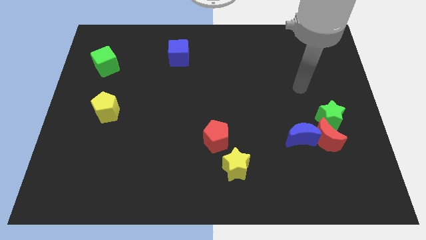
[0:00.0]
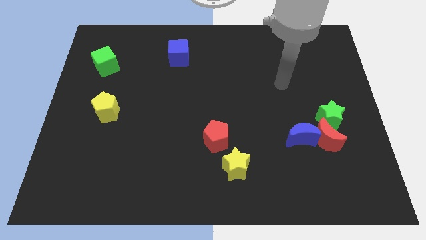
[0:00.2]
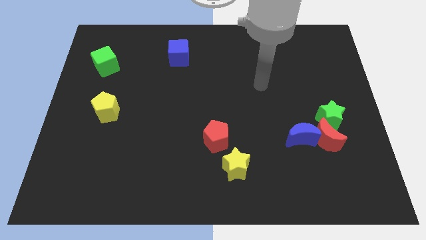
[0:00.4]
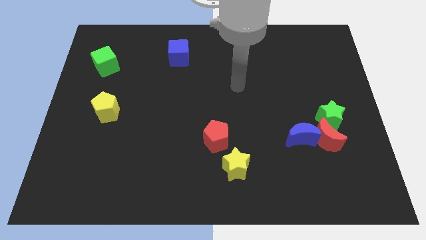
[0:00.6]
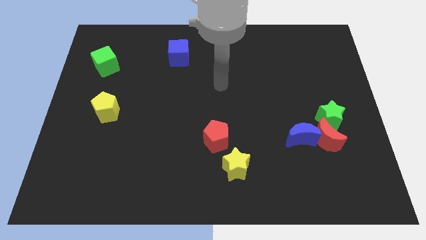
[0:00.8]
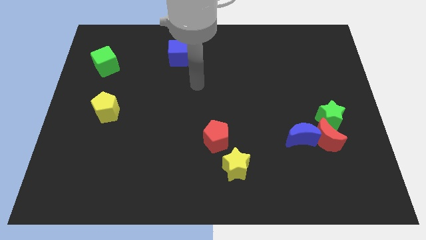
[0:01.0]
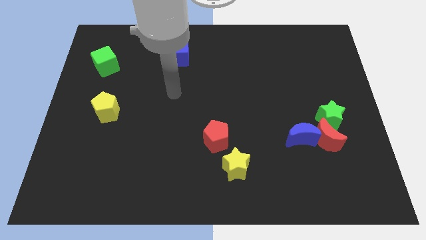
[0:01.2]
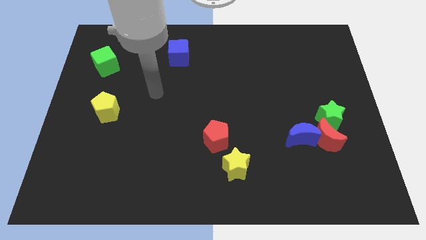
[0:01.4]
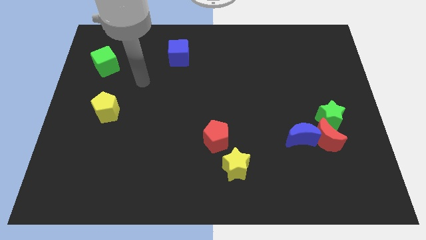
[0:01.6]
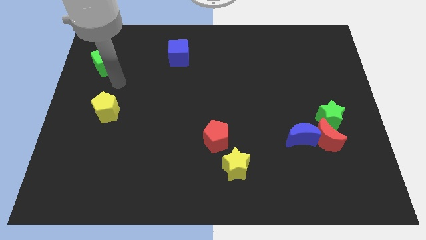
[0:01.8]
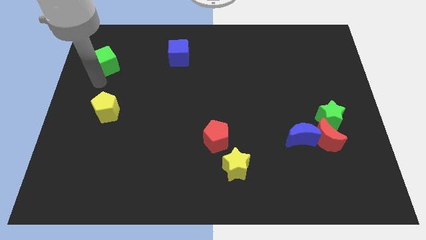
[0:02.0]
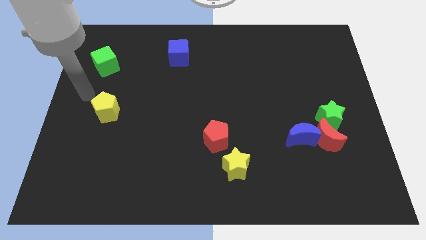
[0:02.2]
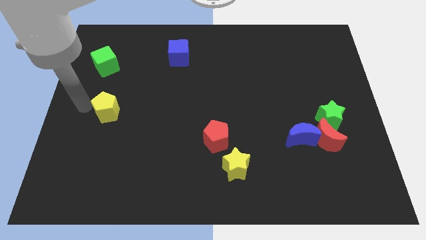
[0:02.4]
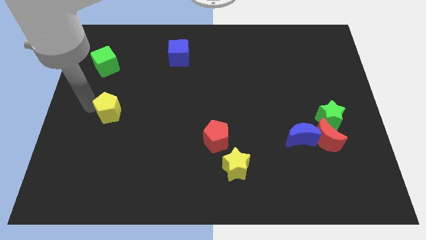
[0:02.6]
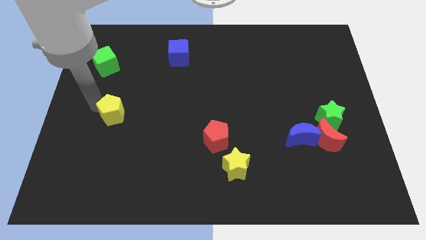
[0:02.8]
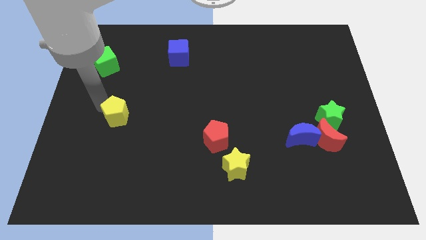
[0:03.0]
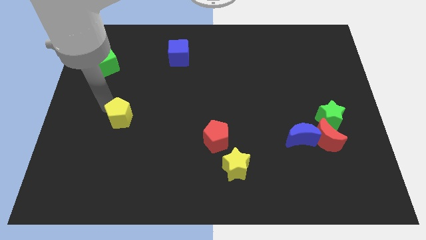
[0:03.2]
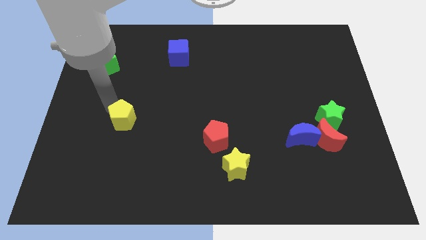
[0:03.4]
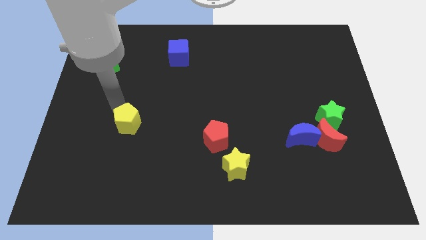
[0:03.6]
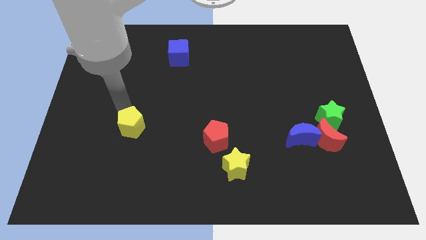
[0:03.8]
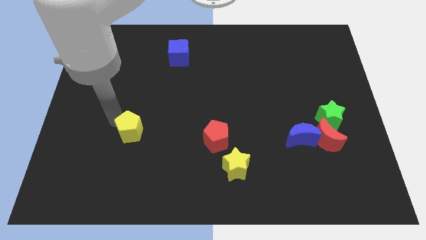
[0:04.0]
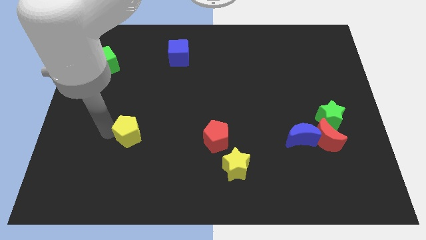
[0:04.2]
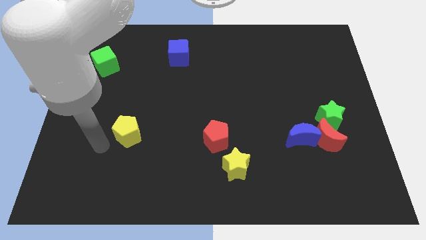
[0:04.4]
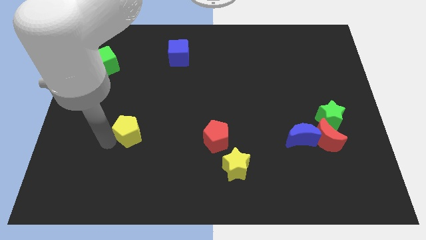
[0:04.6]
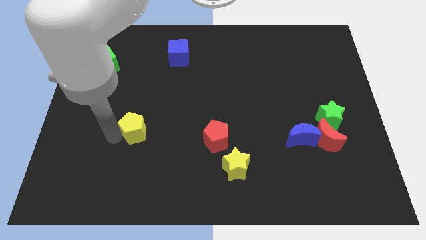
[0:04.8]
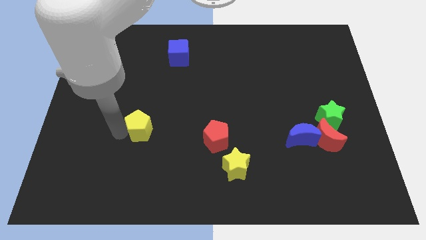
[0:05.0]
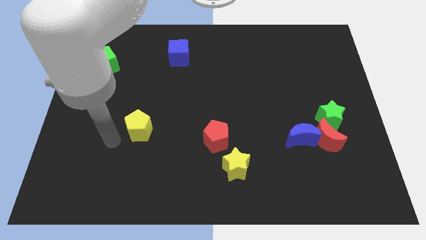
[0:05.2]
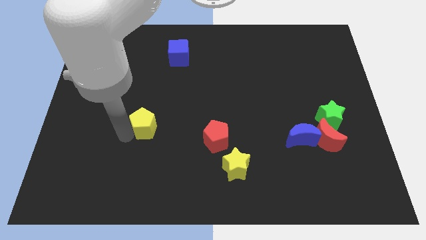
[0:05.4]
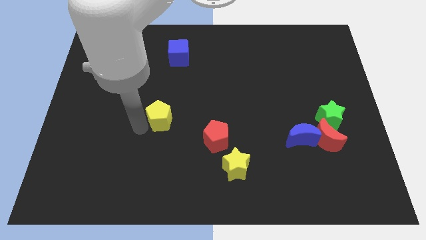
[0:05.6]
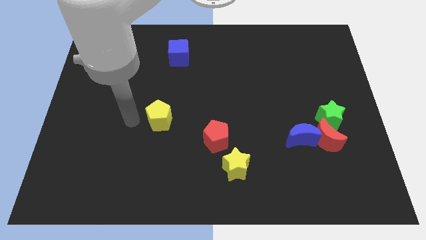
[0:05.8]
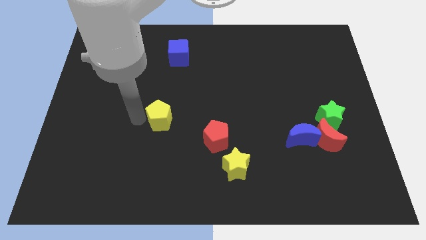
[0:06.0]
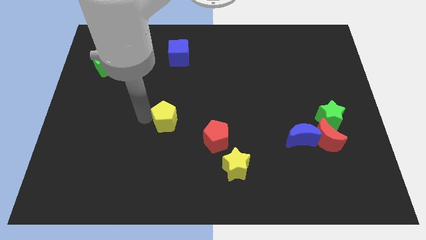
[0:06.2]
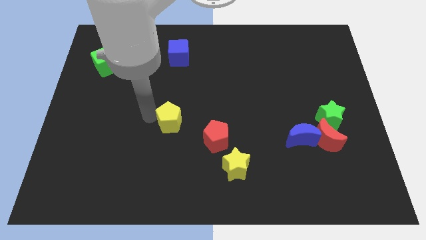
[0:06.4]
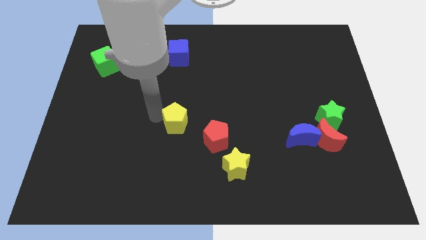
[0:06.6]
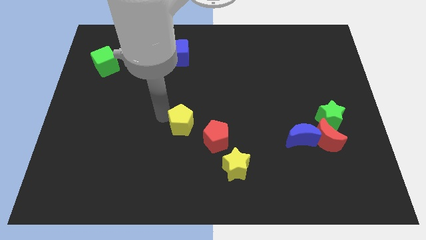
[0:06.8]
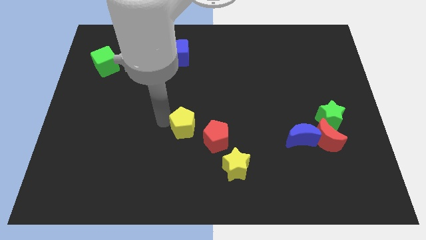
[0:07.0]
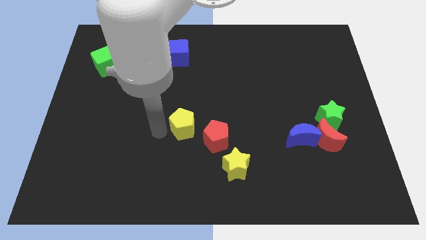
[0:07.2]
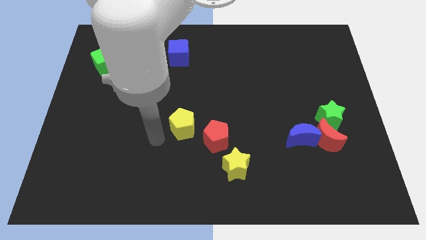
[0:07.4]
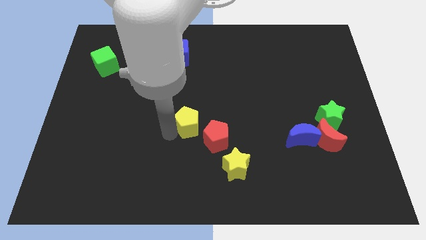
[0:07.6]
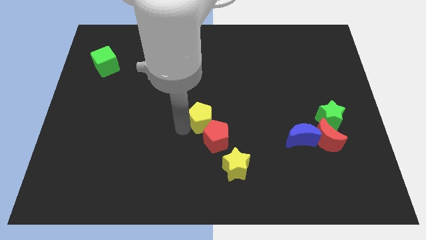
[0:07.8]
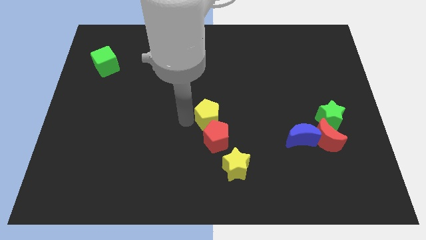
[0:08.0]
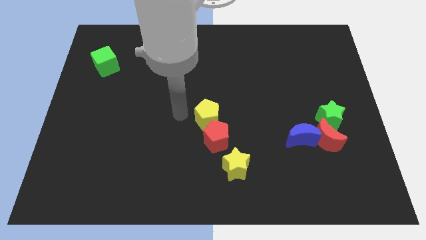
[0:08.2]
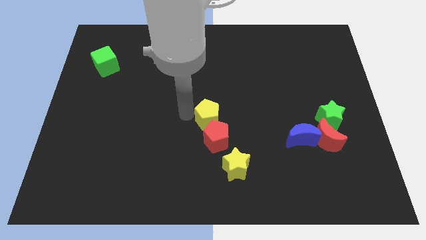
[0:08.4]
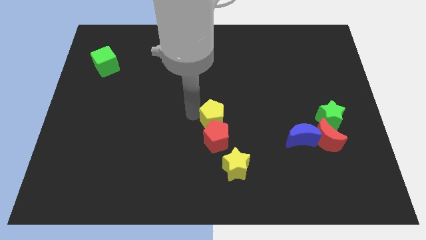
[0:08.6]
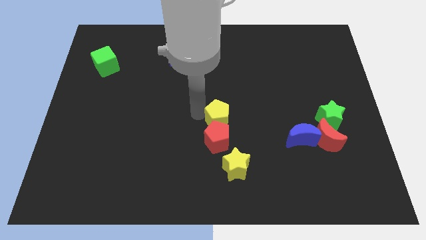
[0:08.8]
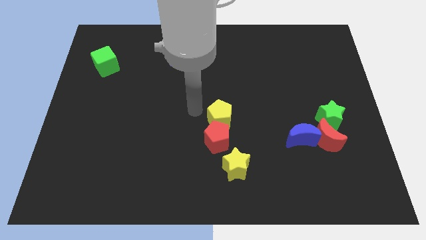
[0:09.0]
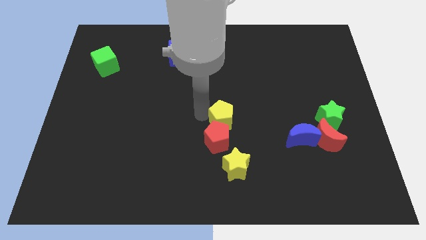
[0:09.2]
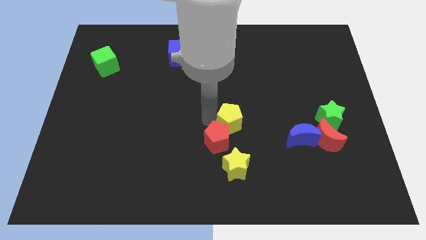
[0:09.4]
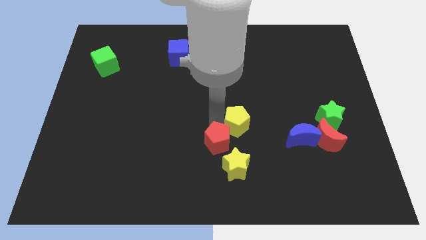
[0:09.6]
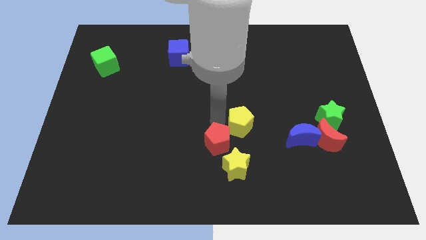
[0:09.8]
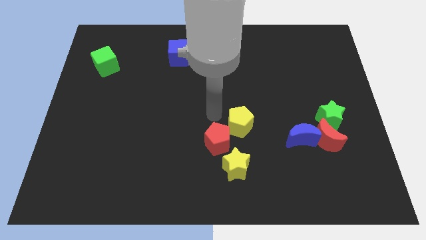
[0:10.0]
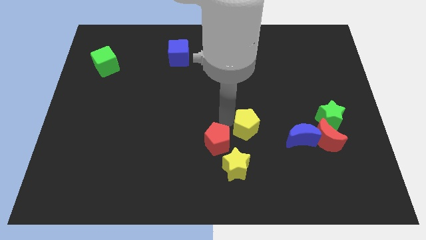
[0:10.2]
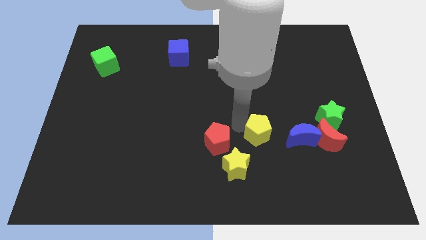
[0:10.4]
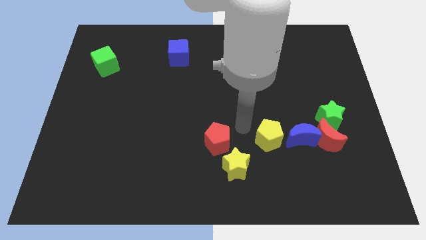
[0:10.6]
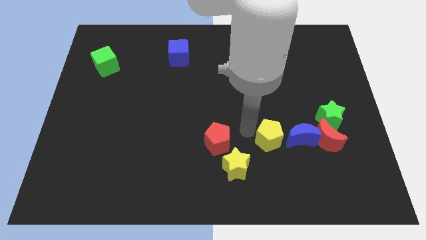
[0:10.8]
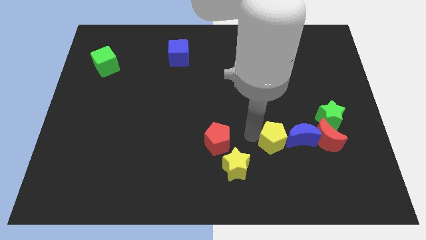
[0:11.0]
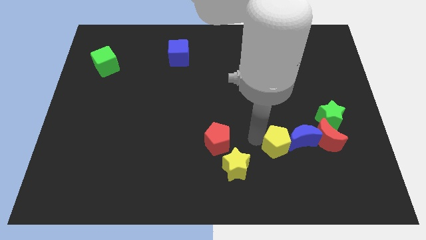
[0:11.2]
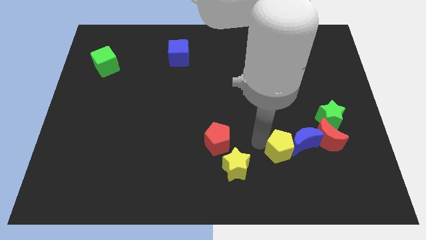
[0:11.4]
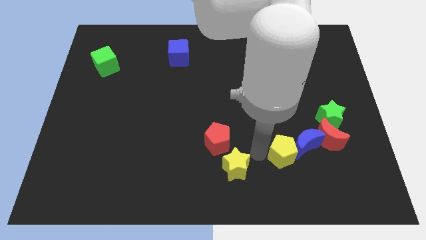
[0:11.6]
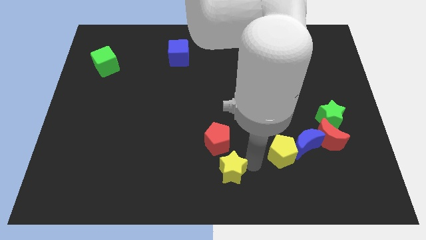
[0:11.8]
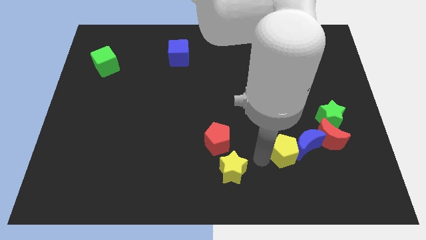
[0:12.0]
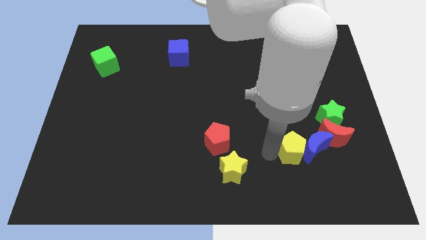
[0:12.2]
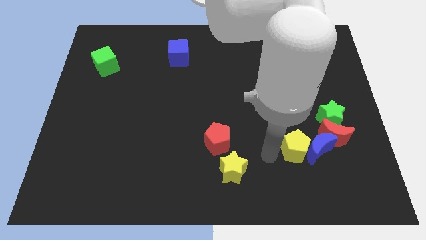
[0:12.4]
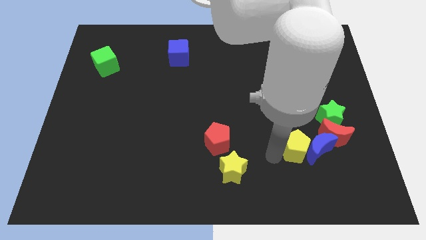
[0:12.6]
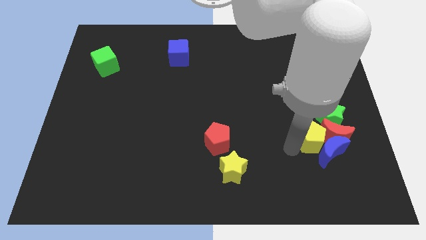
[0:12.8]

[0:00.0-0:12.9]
put the yellow pentagon to the red moon

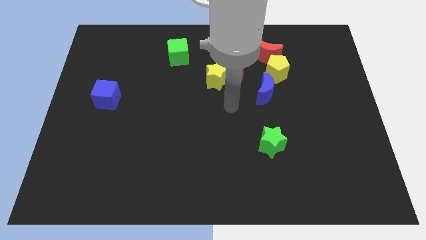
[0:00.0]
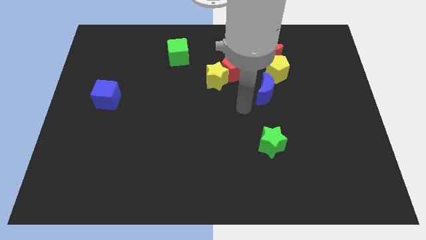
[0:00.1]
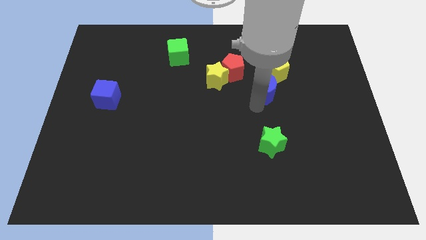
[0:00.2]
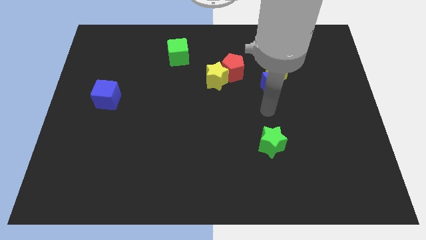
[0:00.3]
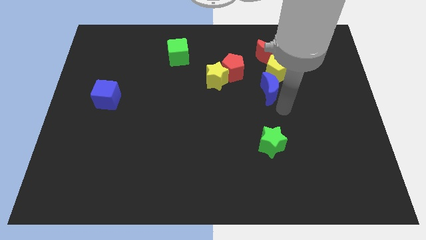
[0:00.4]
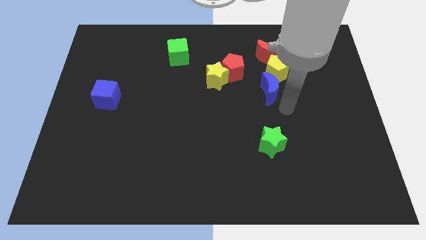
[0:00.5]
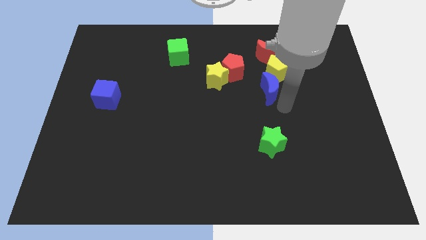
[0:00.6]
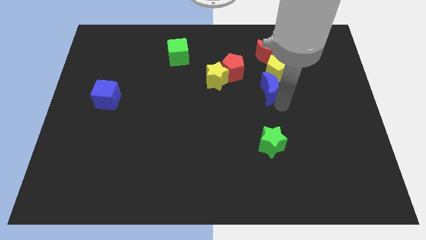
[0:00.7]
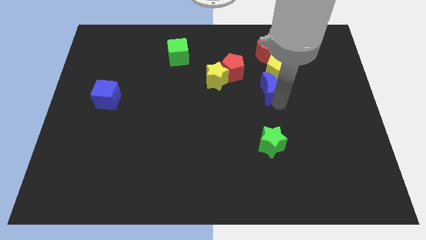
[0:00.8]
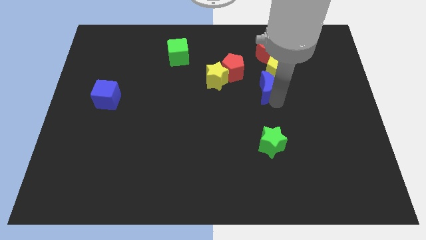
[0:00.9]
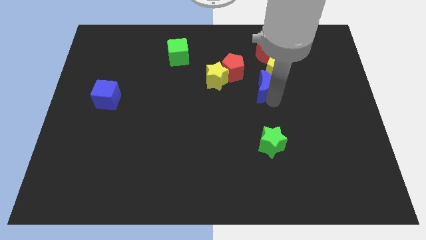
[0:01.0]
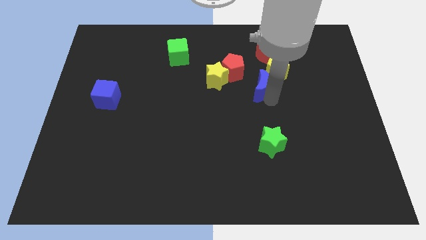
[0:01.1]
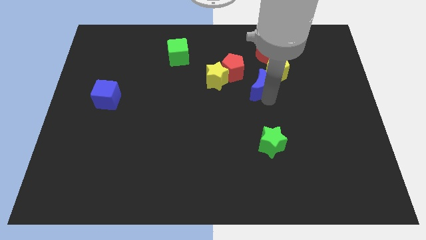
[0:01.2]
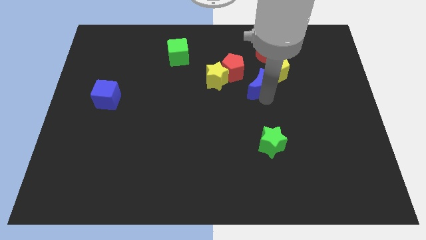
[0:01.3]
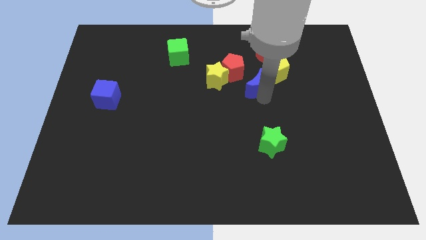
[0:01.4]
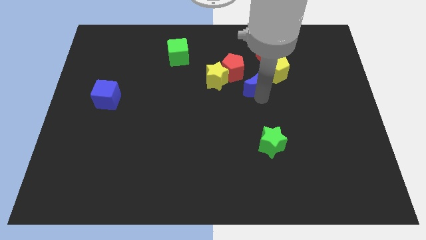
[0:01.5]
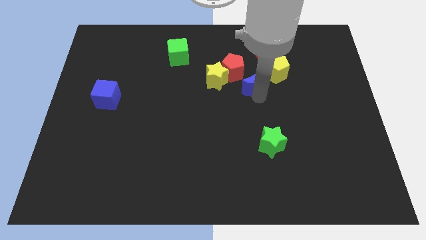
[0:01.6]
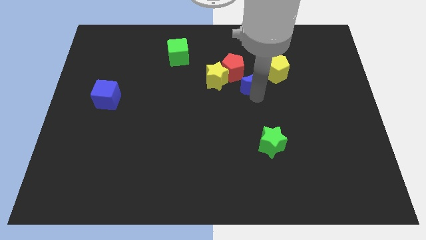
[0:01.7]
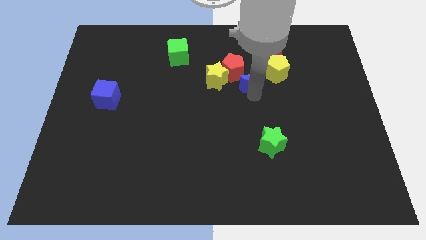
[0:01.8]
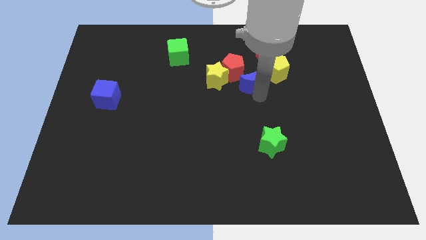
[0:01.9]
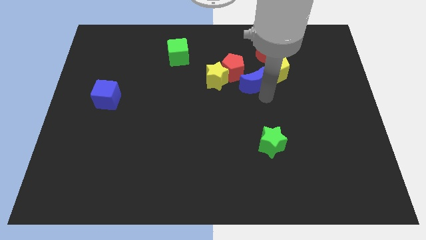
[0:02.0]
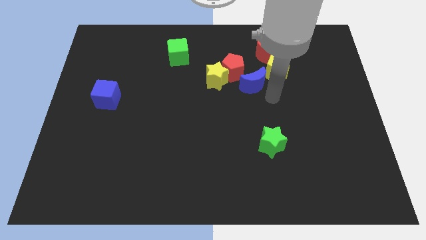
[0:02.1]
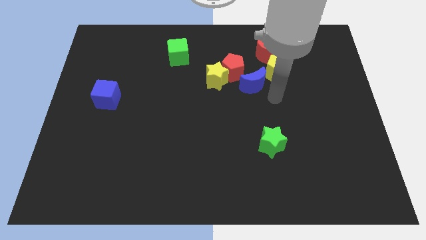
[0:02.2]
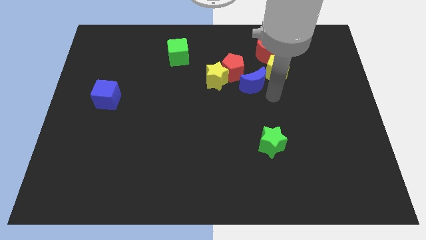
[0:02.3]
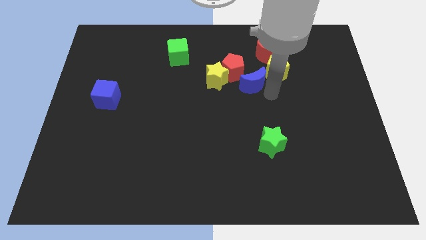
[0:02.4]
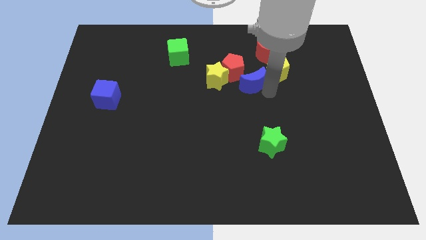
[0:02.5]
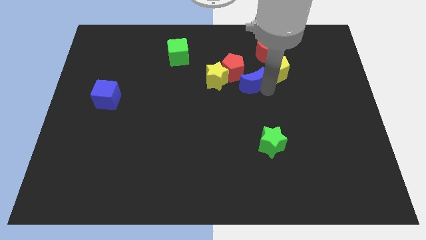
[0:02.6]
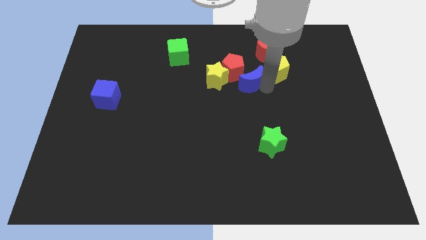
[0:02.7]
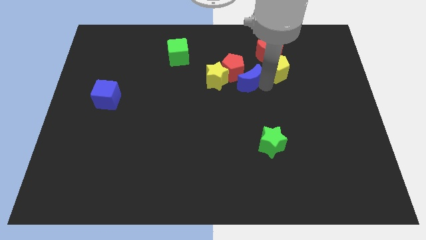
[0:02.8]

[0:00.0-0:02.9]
push the blue moon towards the red pentagon
